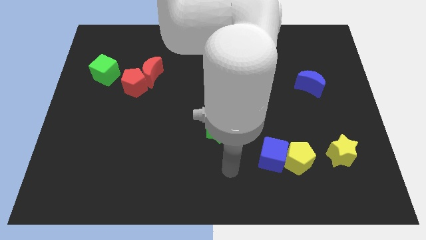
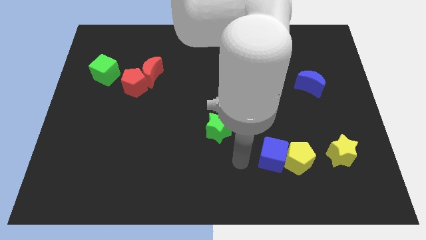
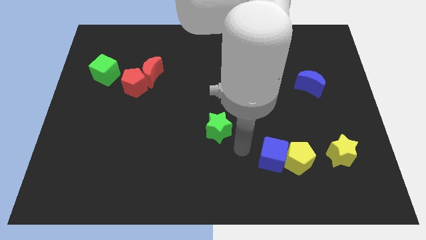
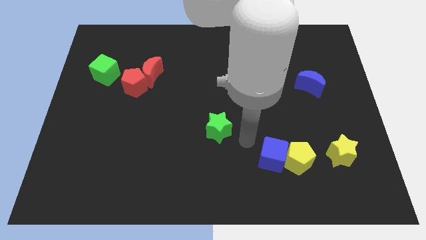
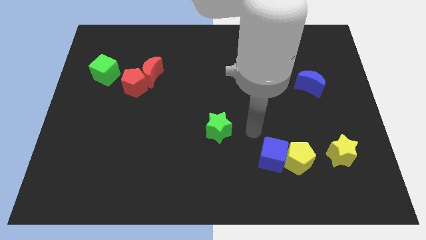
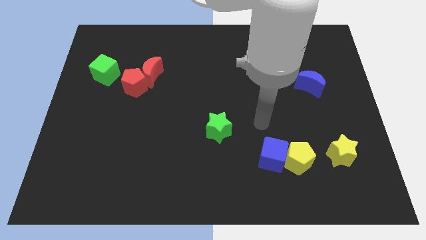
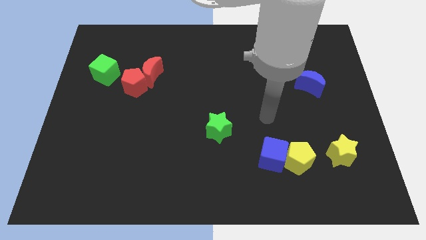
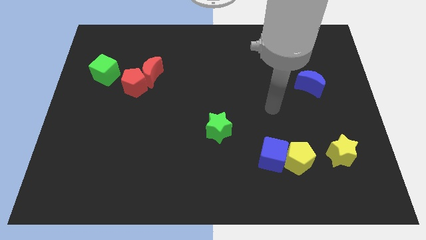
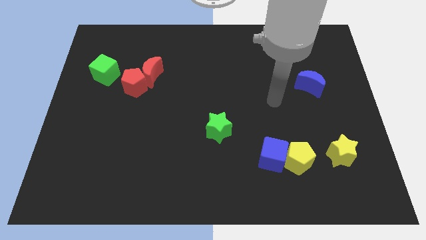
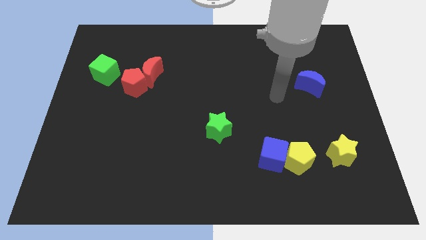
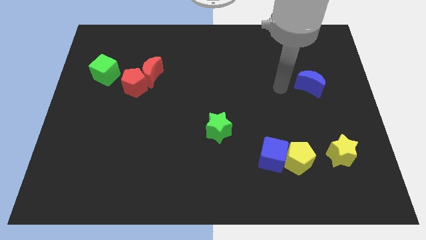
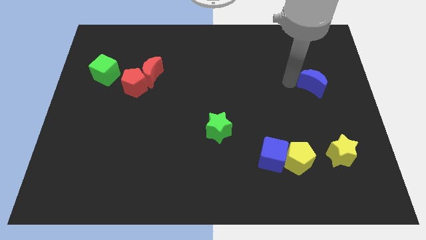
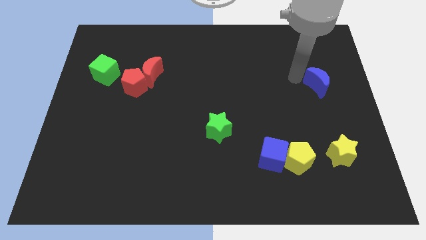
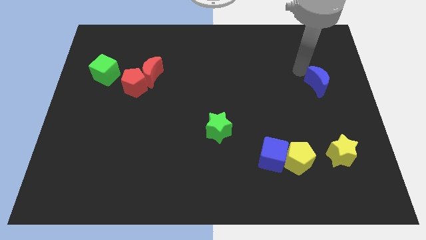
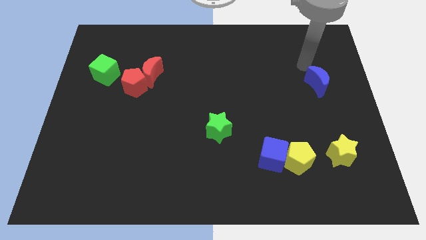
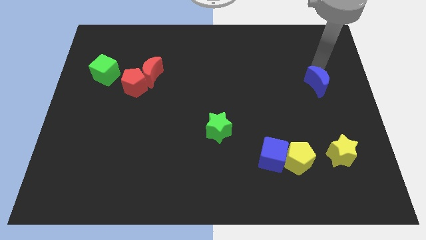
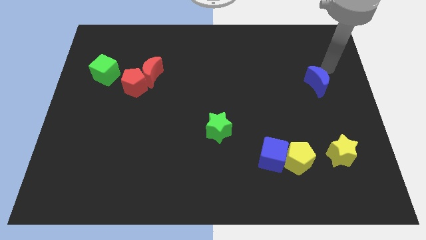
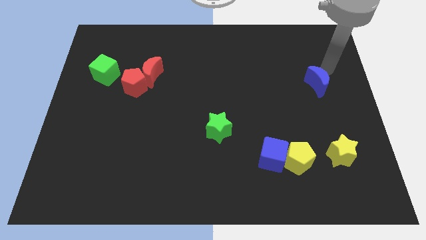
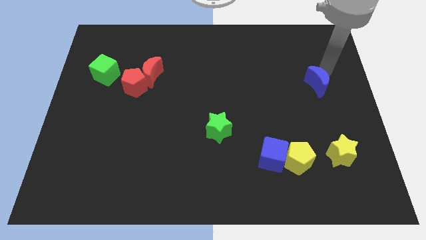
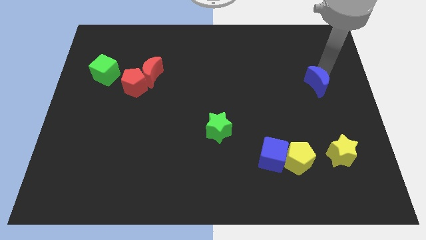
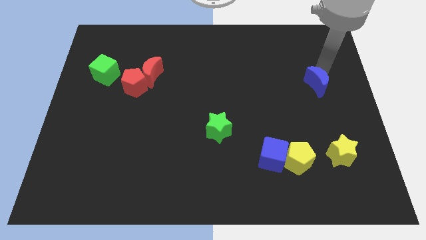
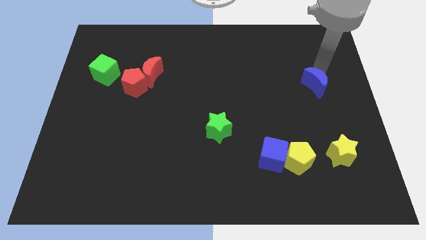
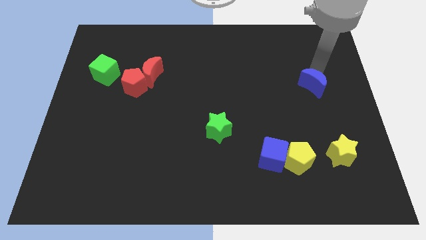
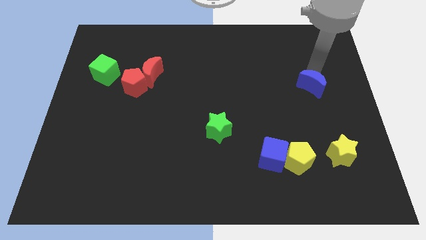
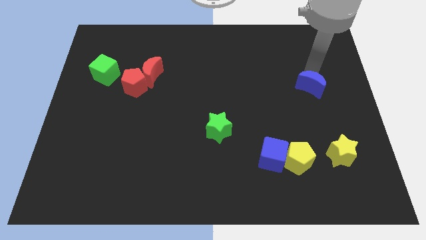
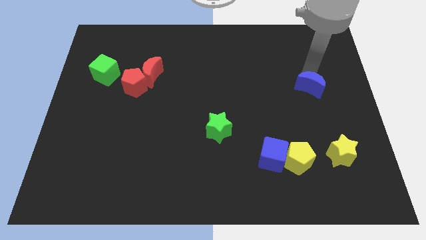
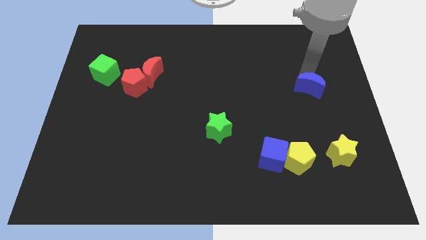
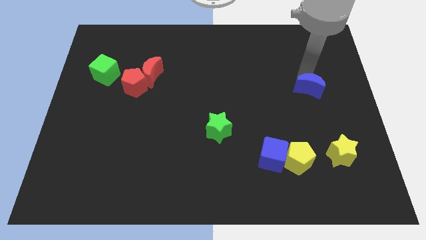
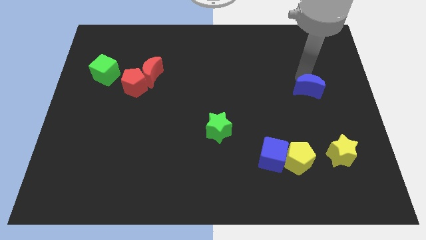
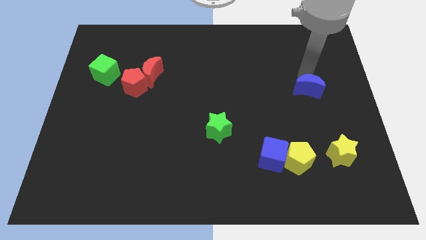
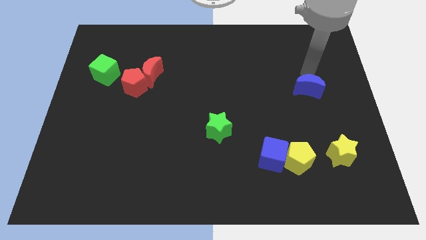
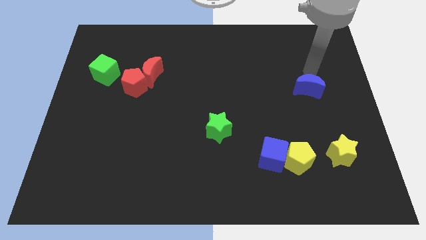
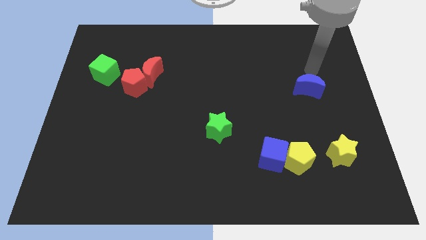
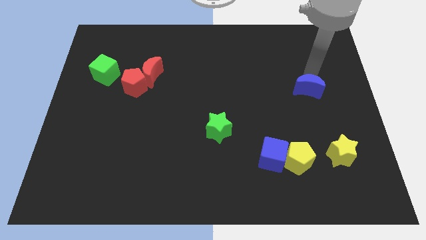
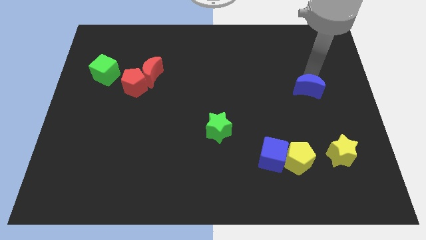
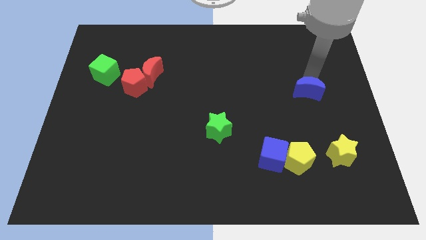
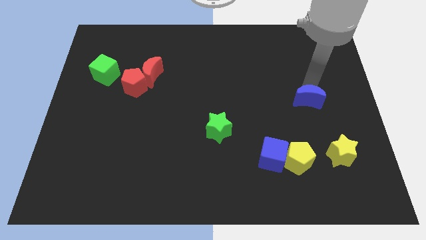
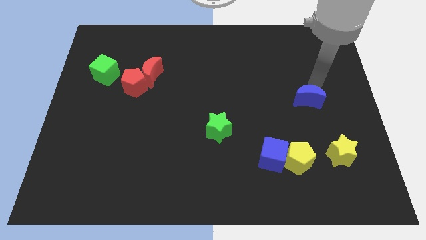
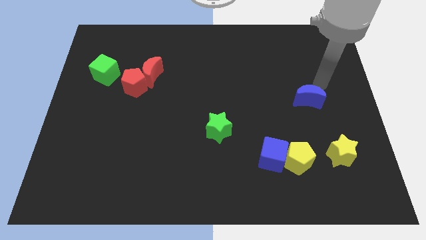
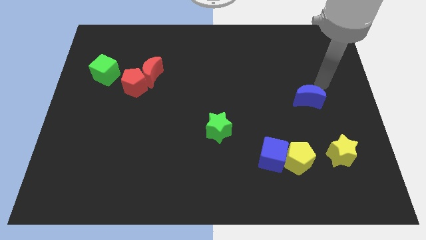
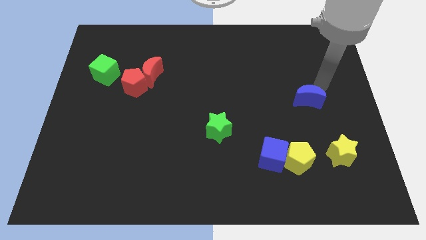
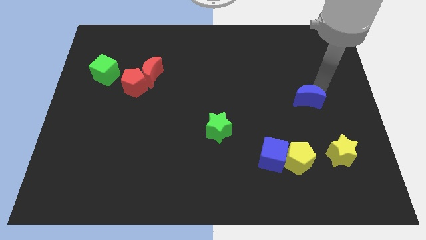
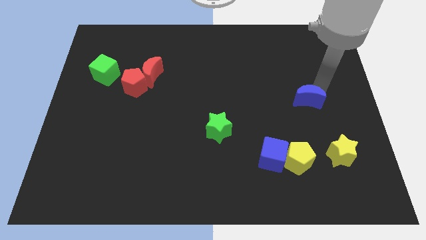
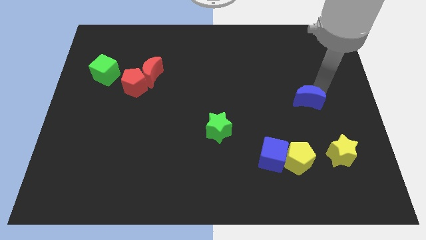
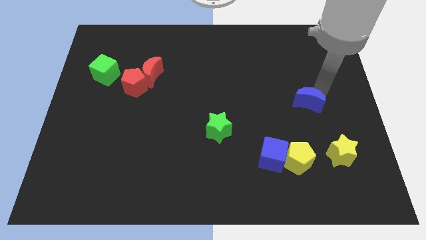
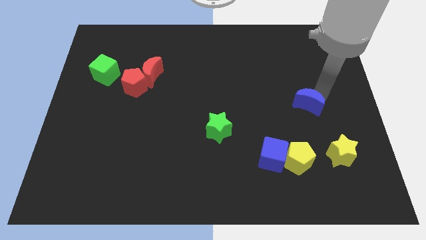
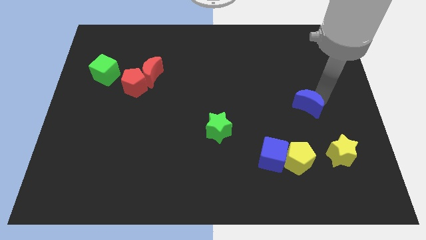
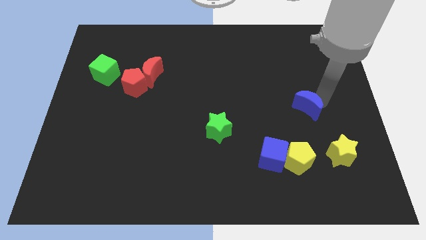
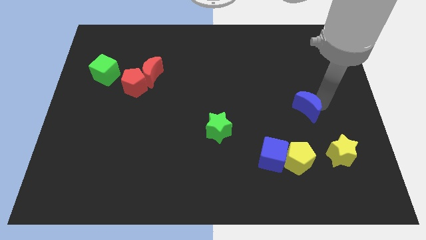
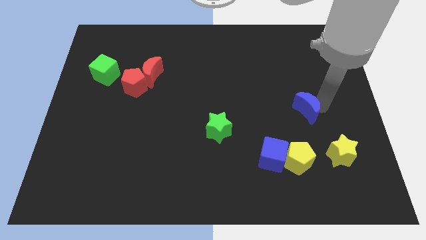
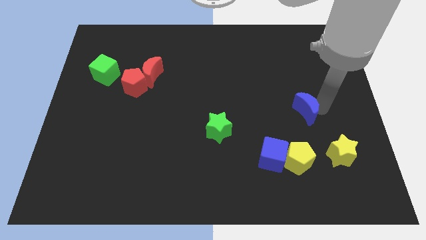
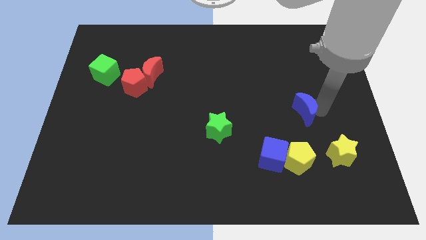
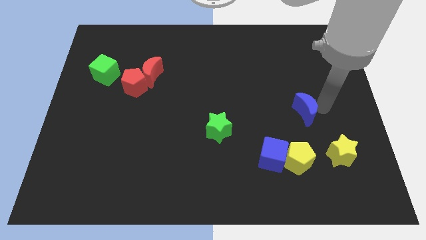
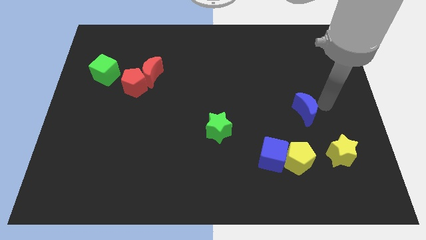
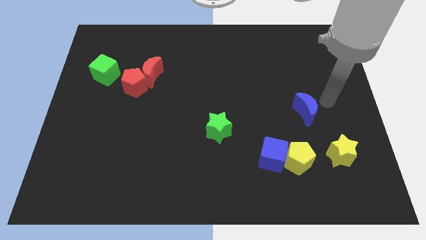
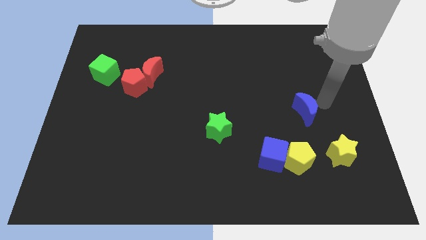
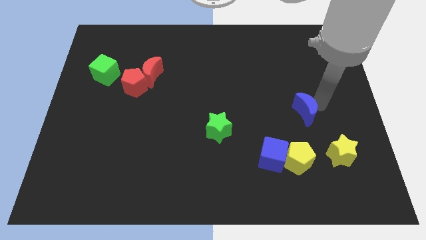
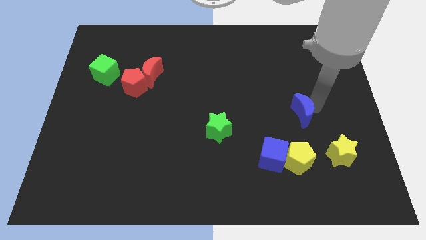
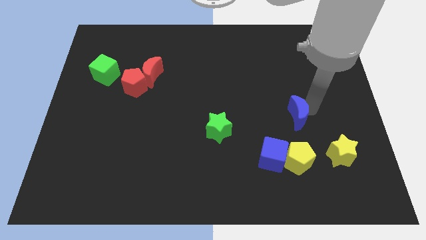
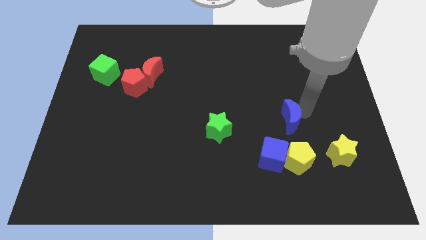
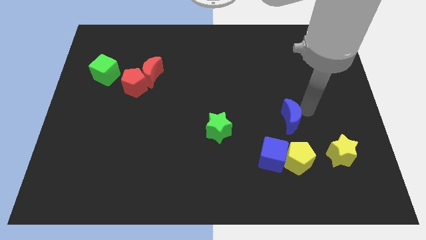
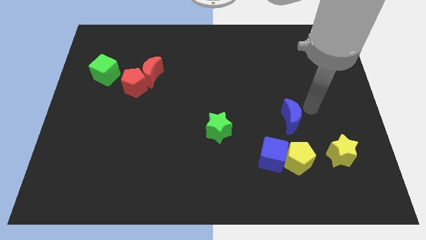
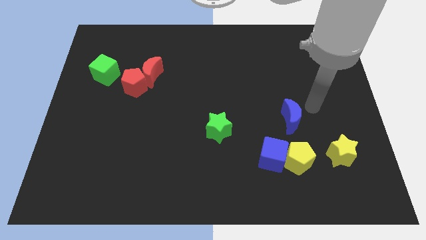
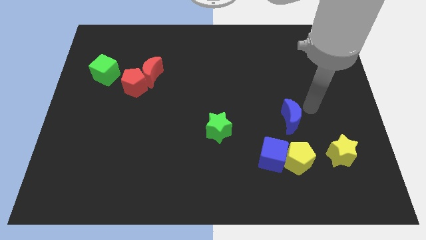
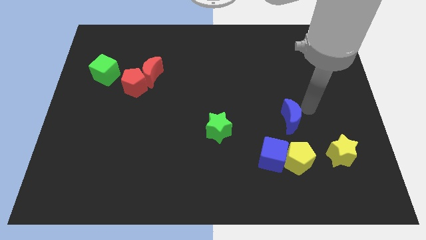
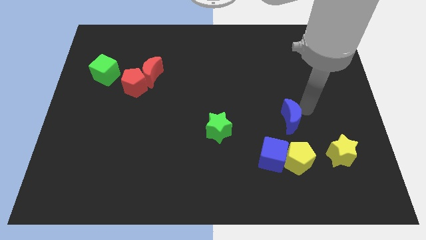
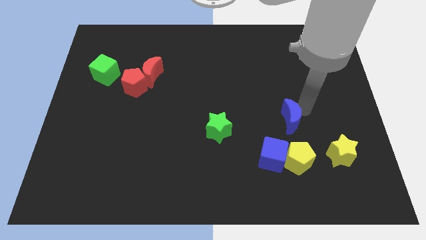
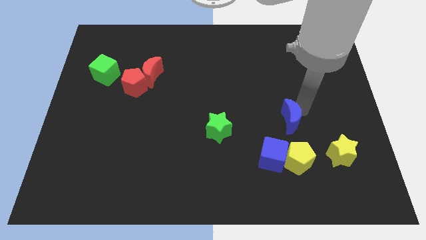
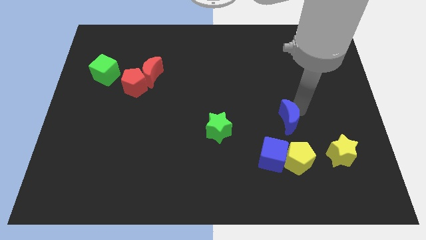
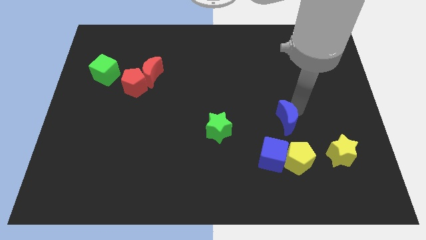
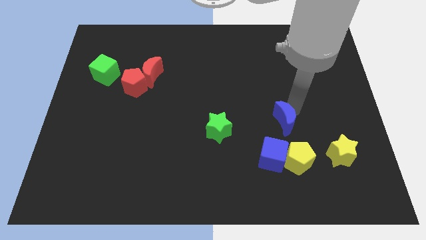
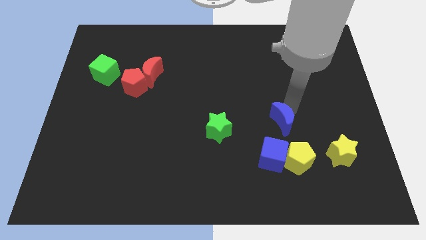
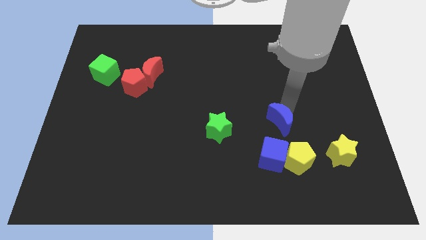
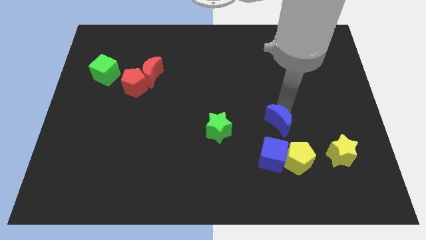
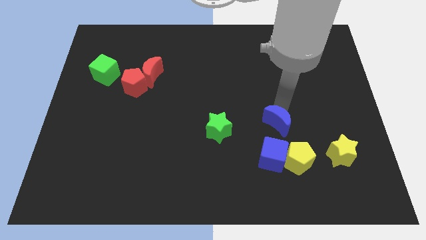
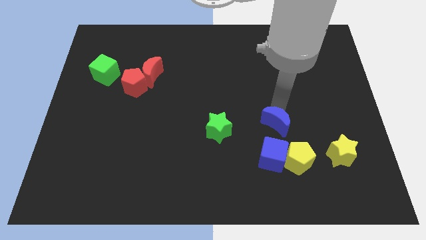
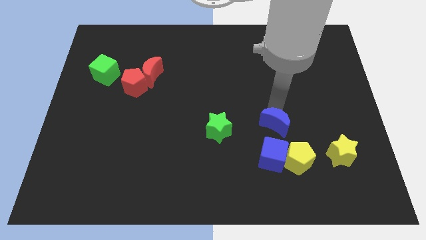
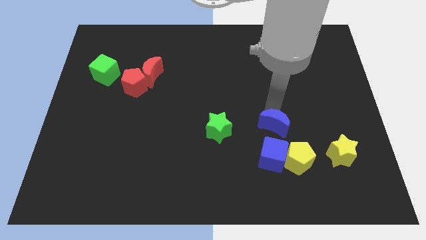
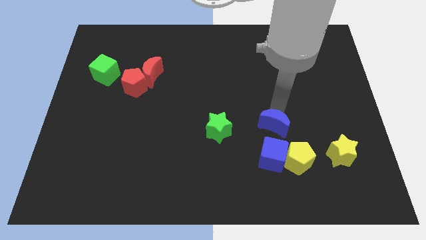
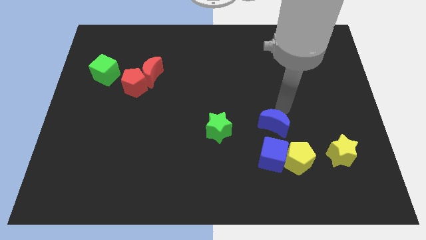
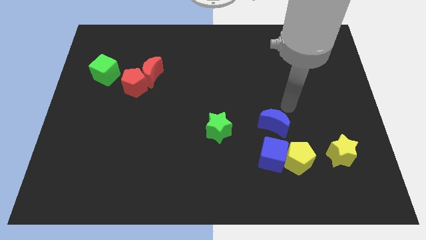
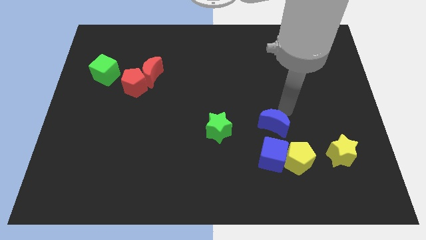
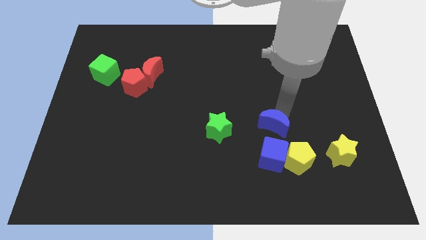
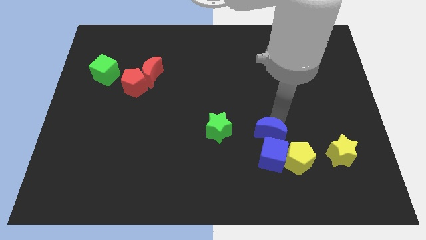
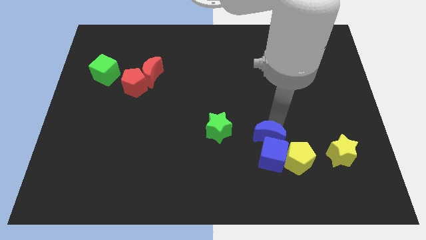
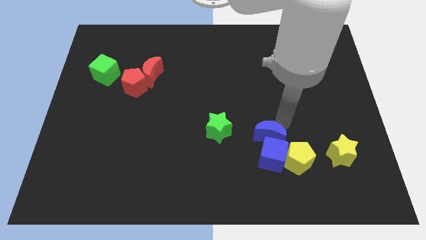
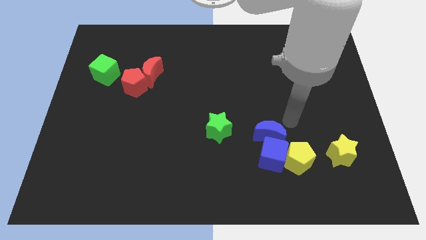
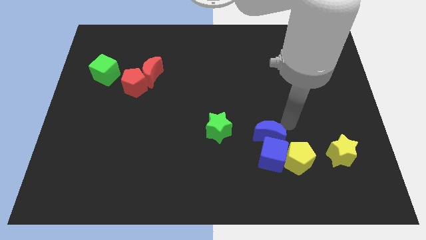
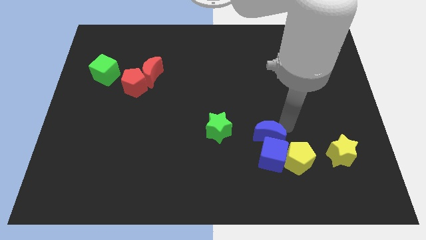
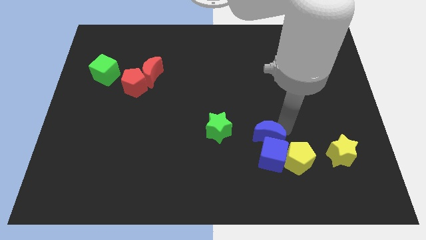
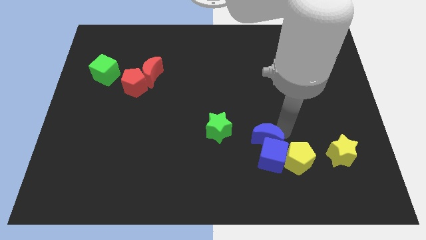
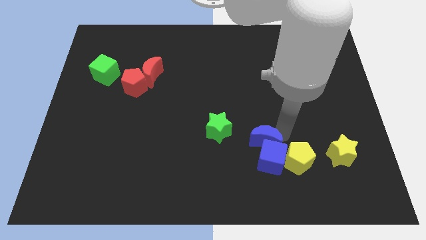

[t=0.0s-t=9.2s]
push the blue moon down and to the left
